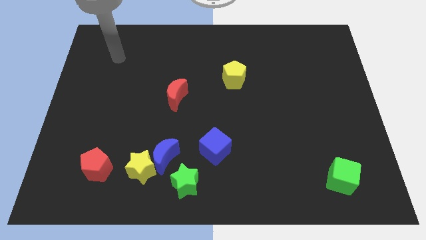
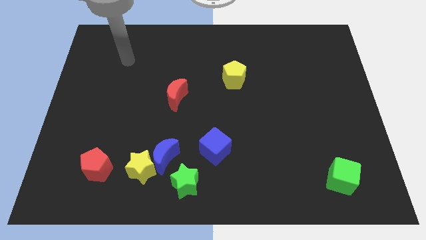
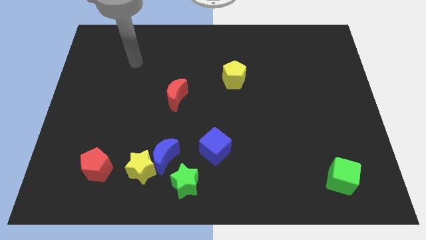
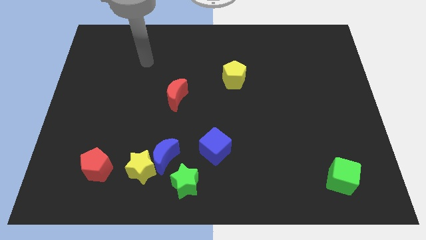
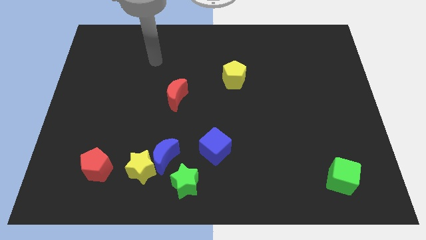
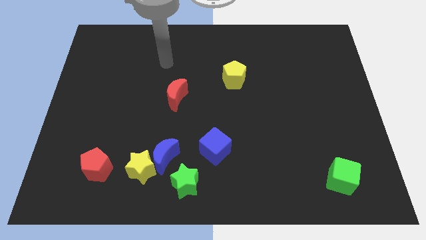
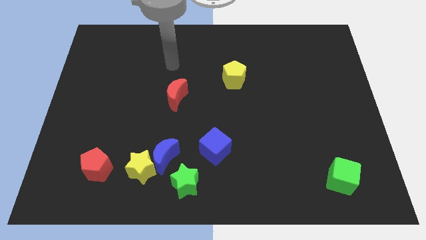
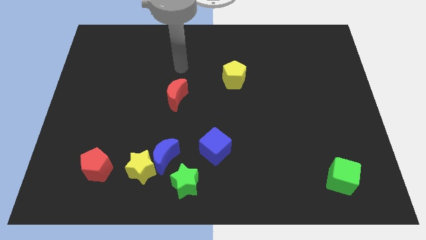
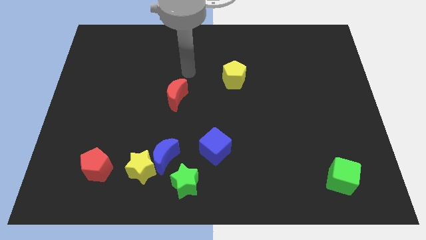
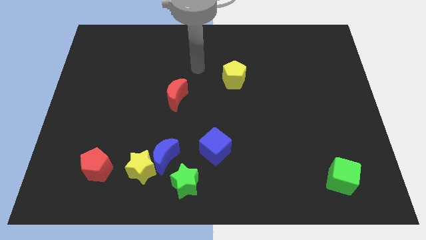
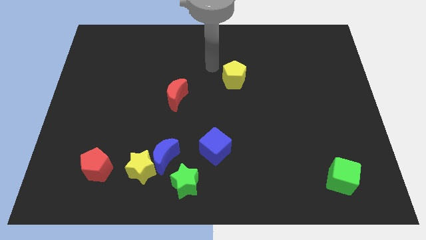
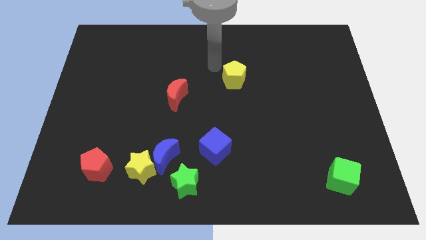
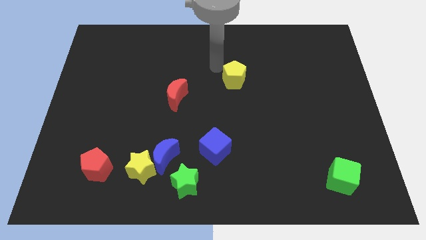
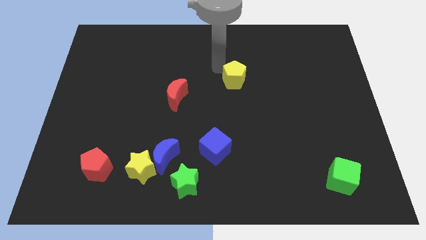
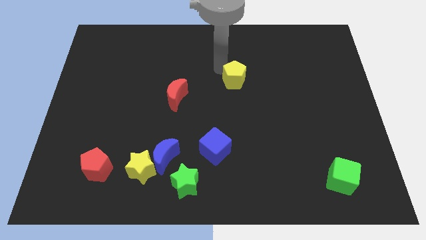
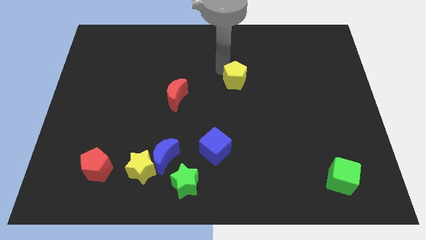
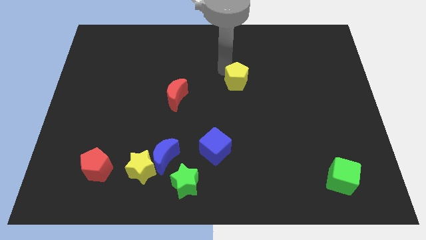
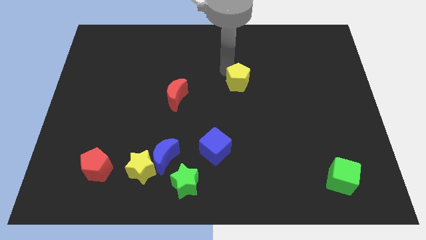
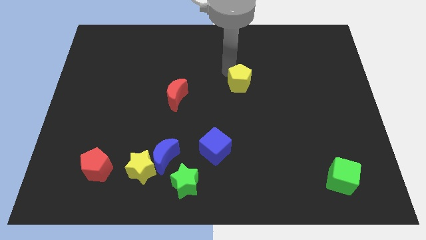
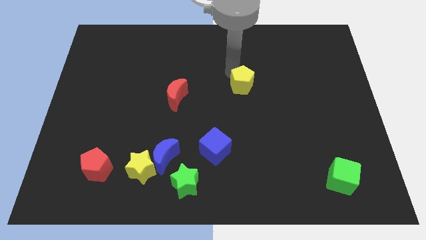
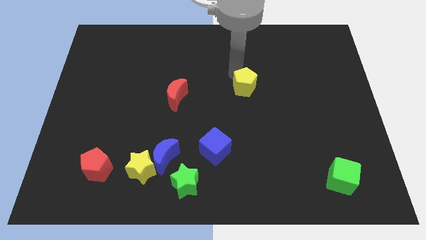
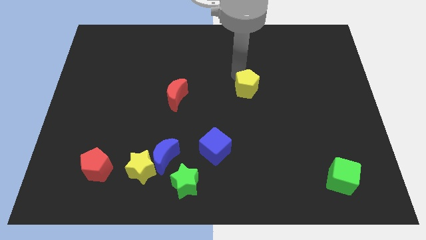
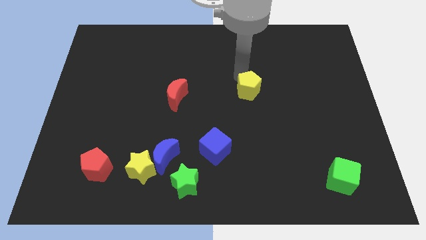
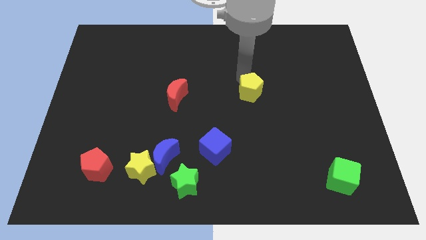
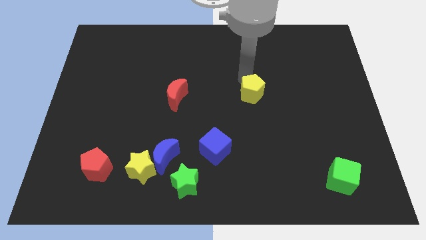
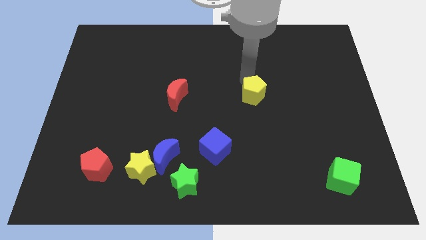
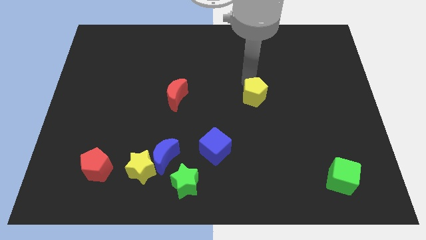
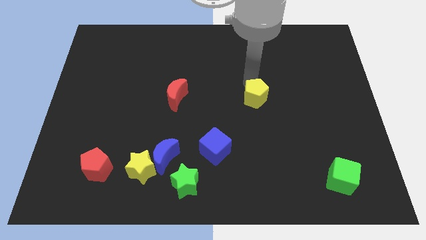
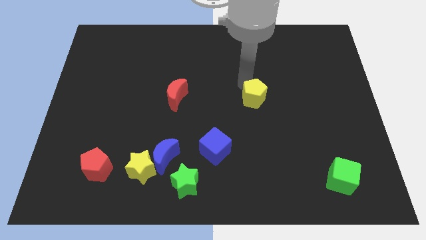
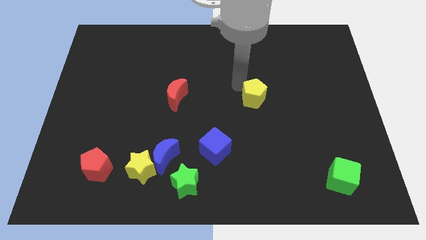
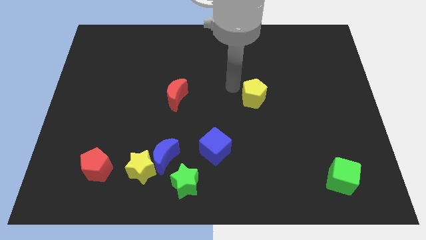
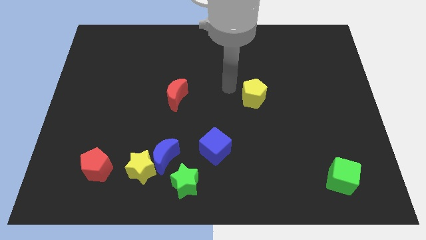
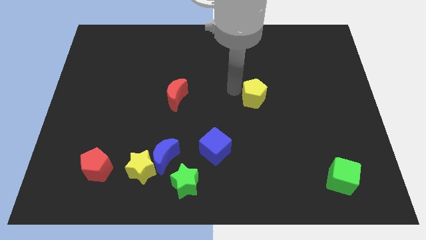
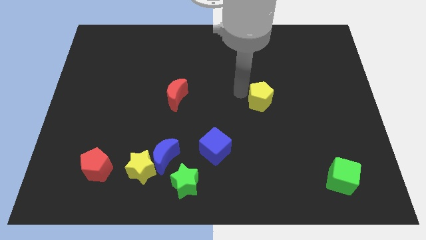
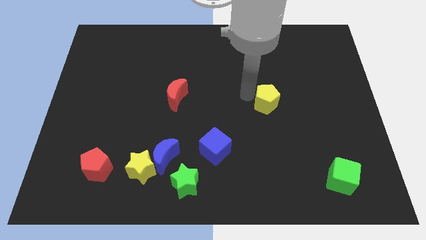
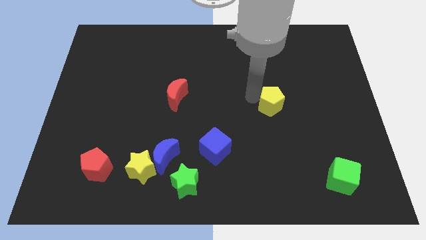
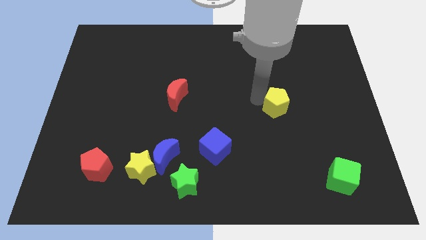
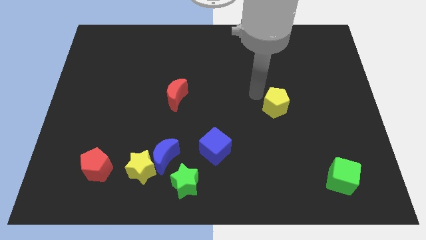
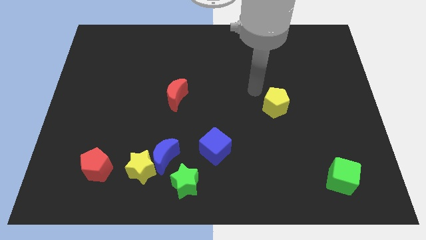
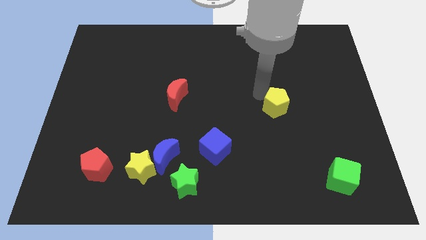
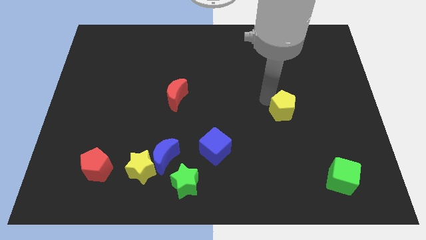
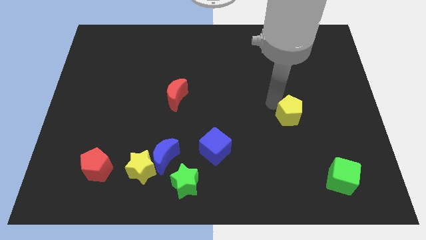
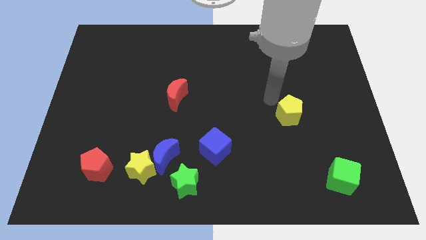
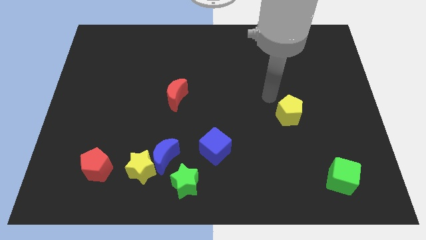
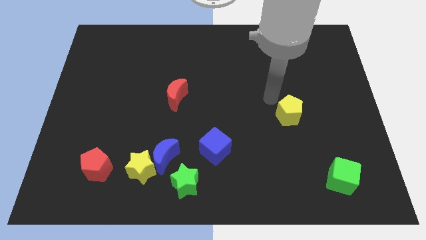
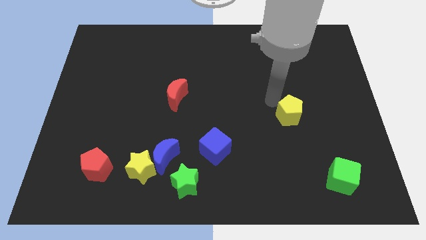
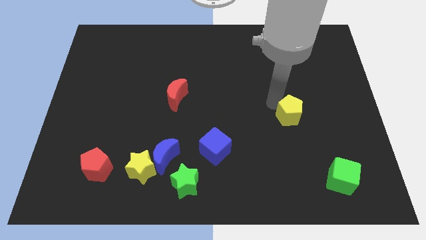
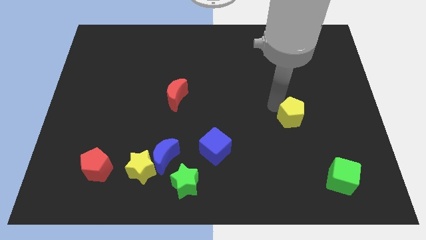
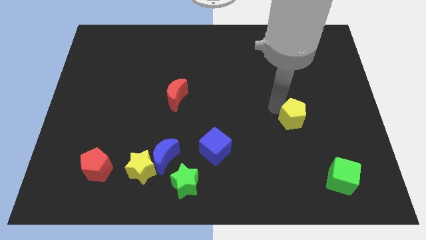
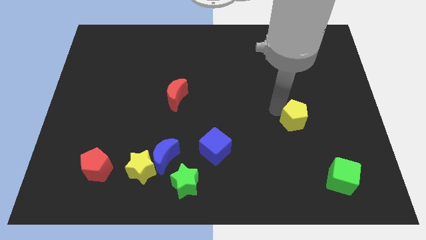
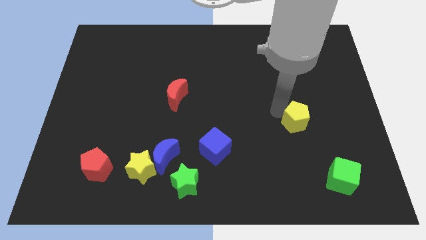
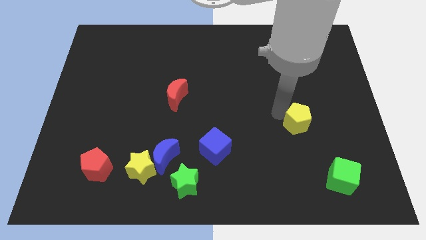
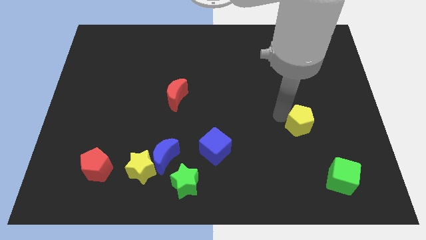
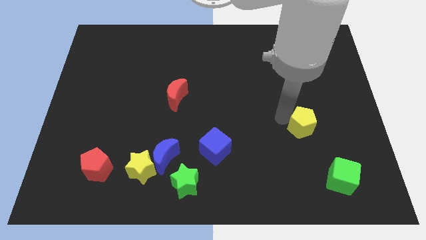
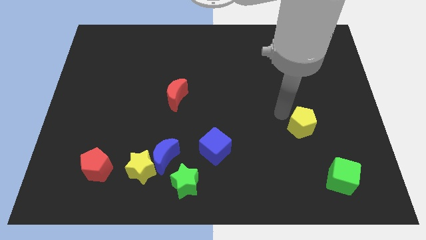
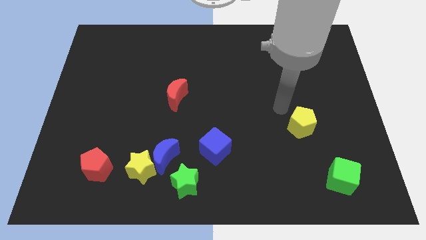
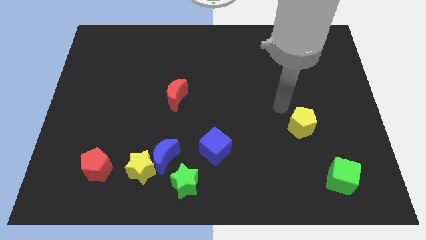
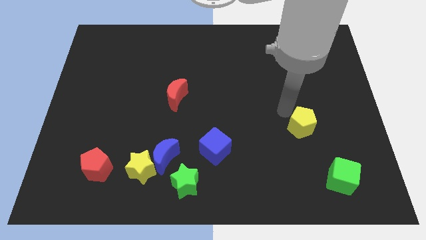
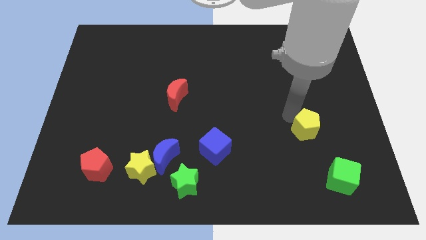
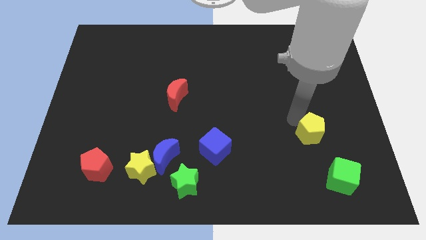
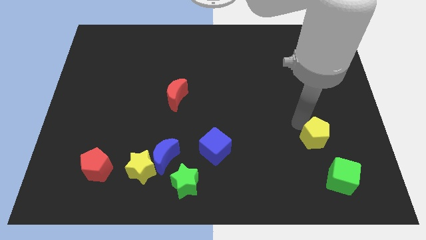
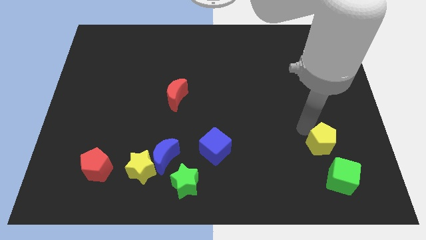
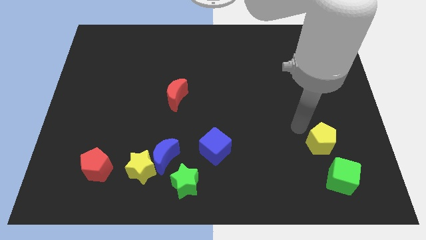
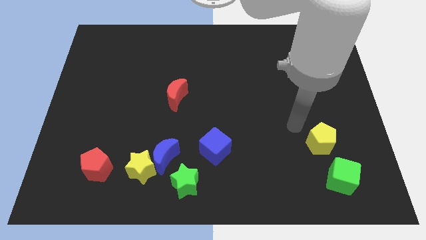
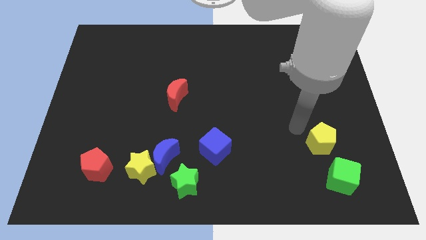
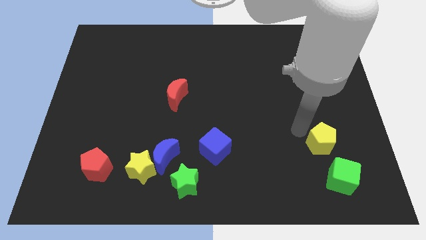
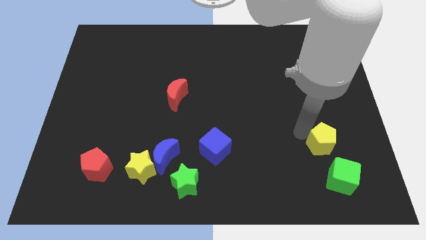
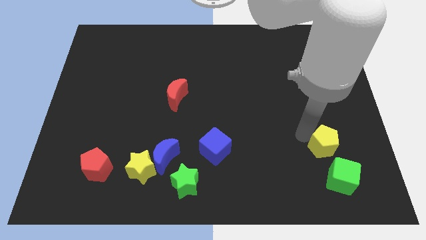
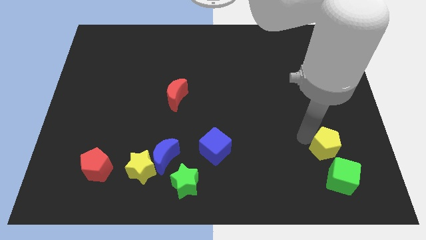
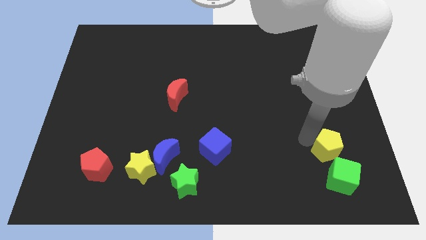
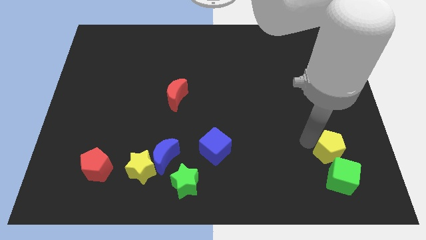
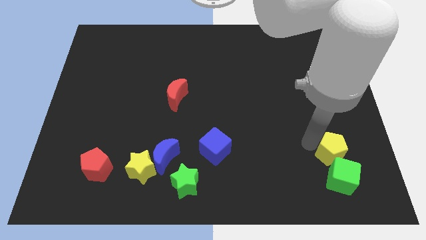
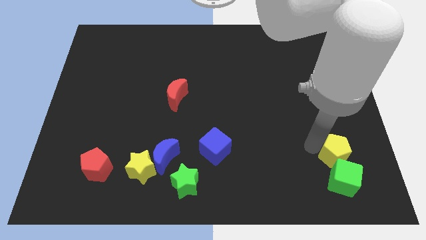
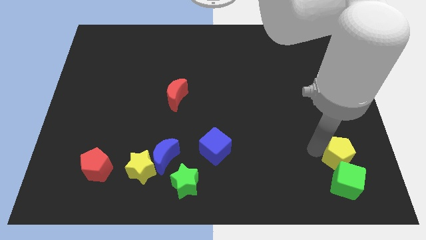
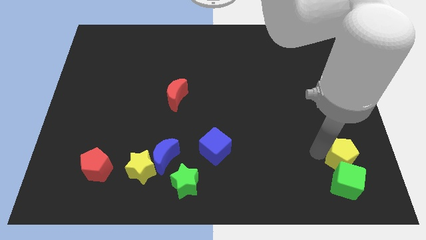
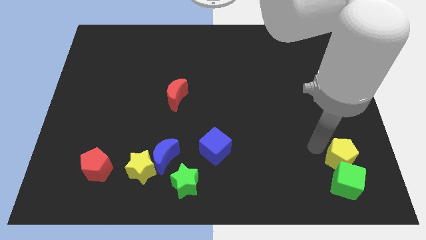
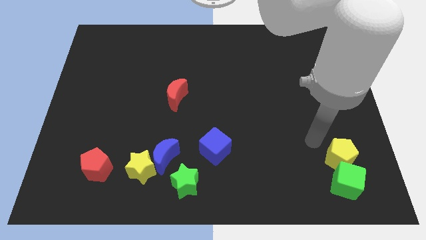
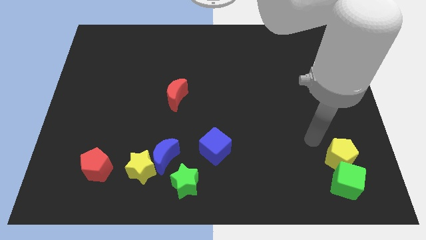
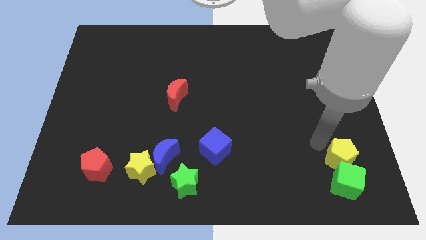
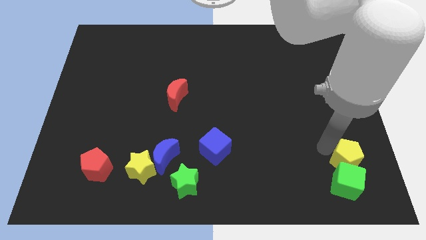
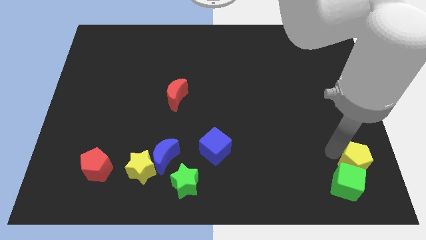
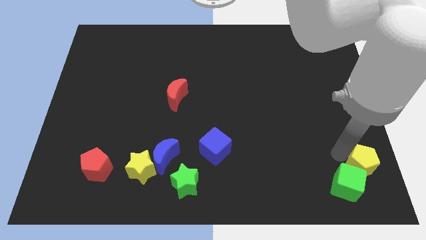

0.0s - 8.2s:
slide the yellow pentagon to the bottom right of the board
